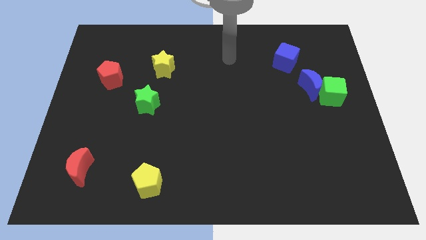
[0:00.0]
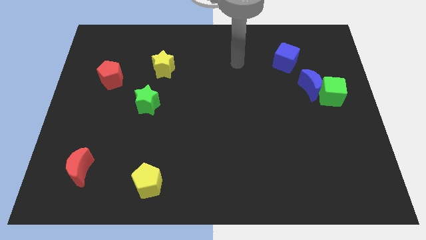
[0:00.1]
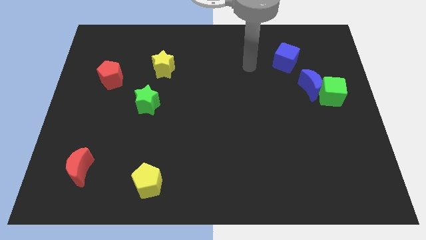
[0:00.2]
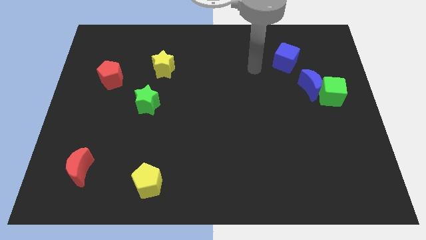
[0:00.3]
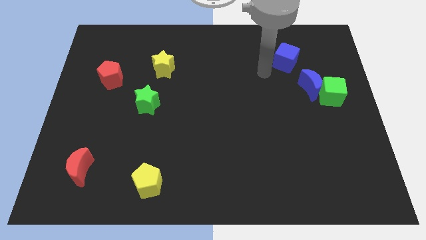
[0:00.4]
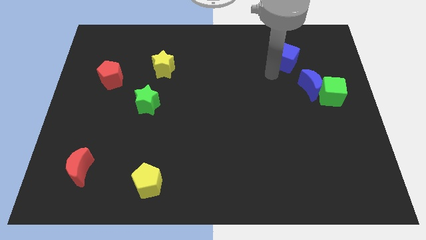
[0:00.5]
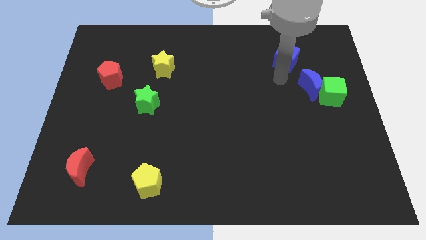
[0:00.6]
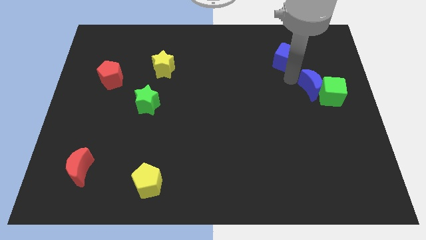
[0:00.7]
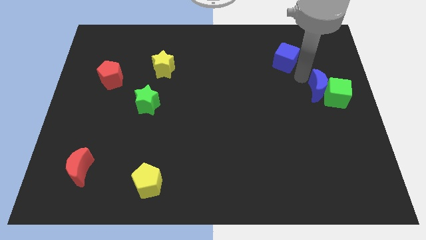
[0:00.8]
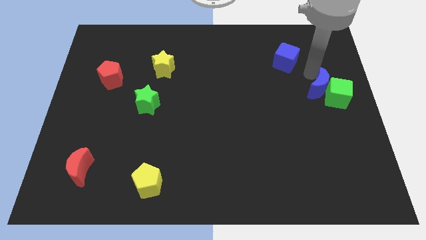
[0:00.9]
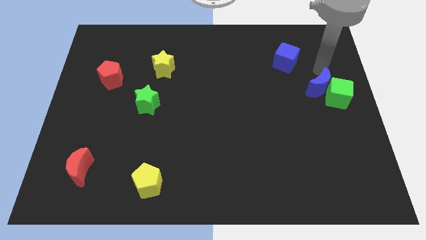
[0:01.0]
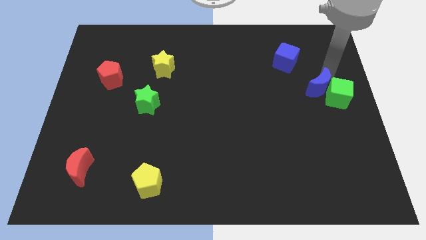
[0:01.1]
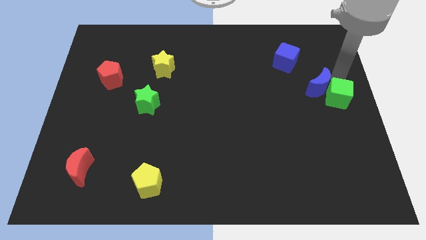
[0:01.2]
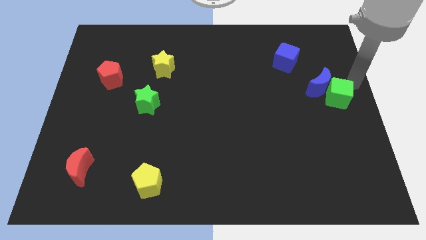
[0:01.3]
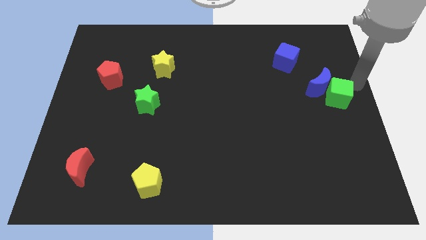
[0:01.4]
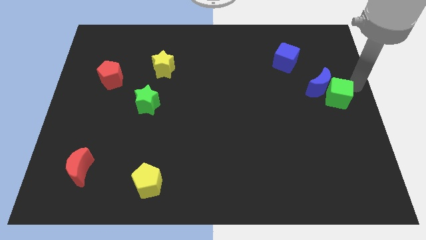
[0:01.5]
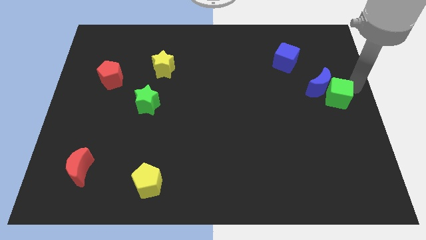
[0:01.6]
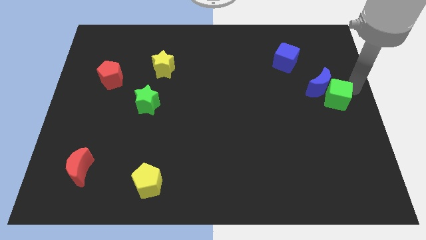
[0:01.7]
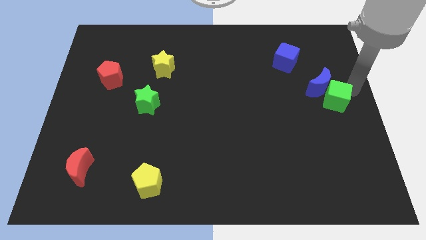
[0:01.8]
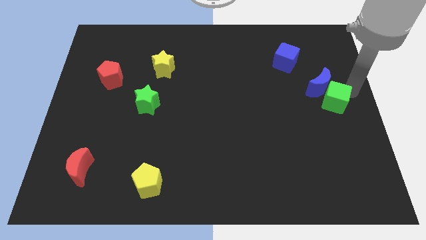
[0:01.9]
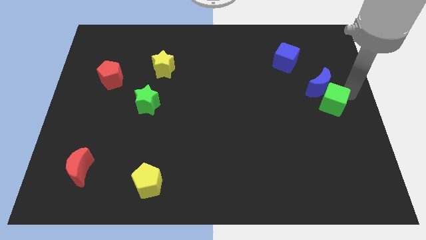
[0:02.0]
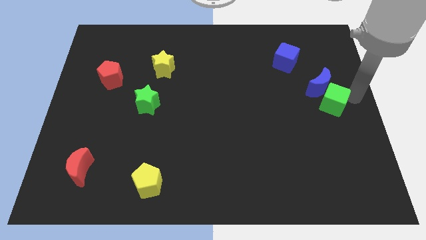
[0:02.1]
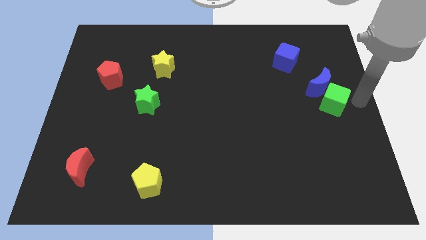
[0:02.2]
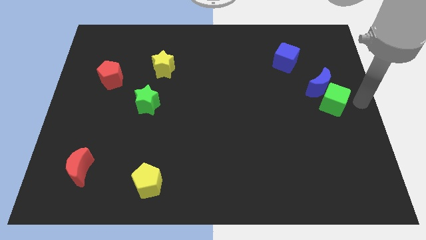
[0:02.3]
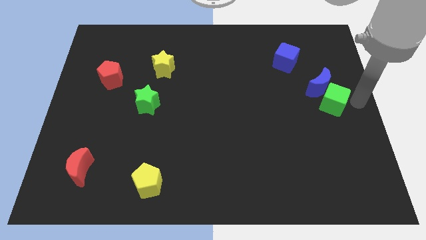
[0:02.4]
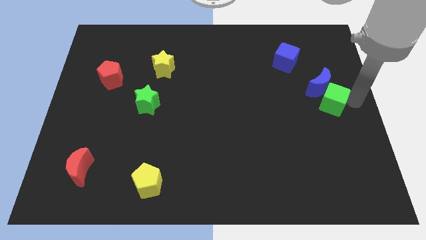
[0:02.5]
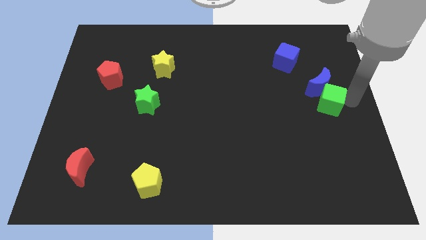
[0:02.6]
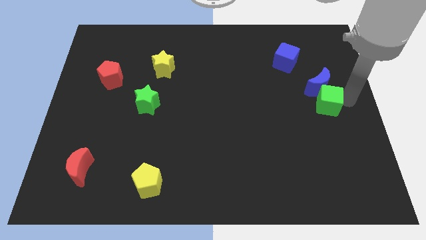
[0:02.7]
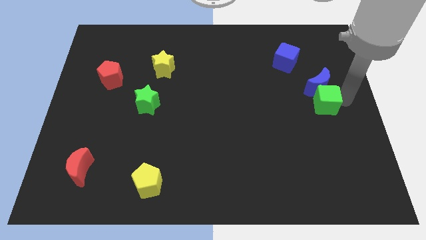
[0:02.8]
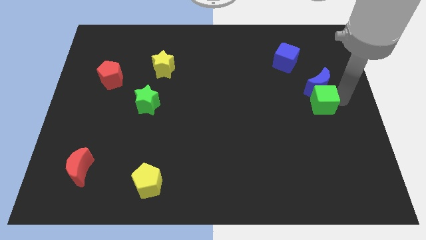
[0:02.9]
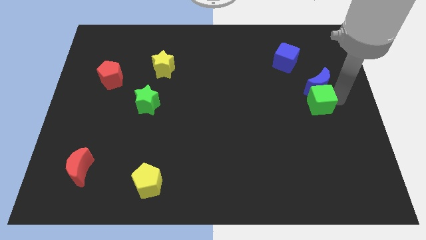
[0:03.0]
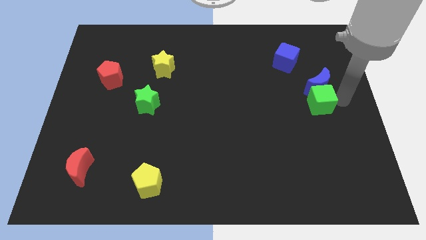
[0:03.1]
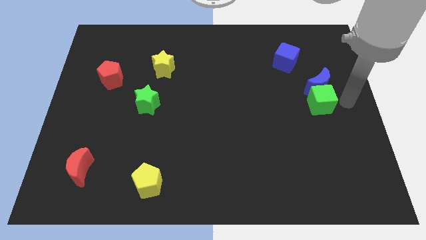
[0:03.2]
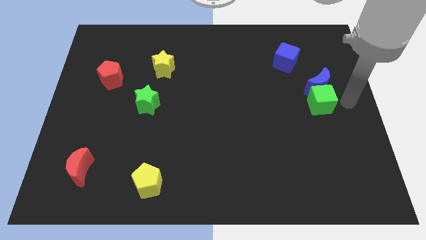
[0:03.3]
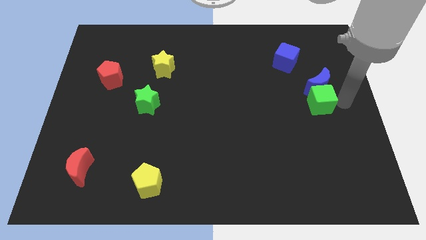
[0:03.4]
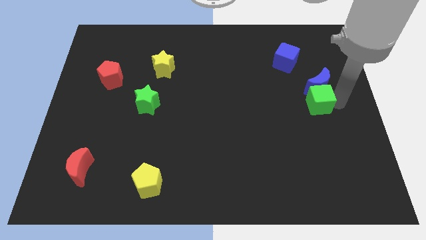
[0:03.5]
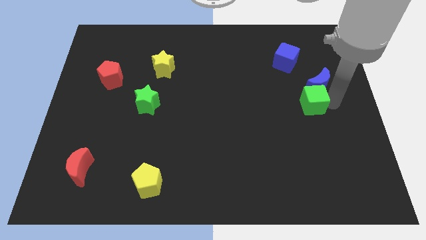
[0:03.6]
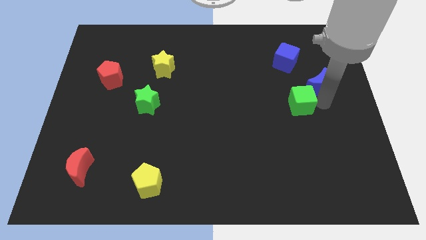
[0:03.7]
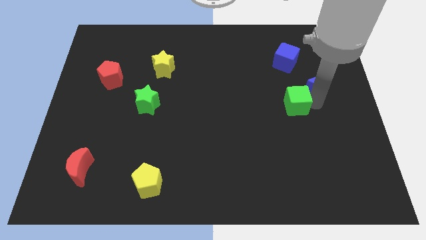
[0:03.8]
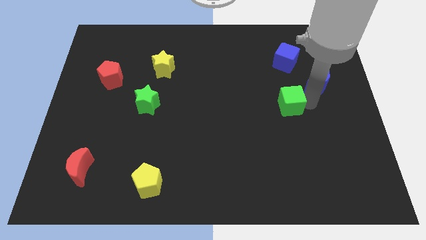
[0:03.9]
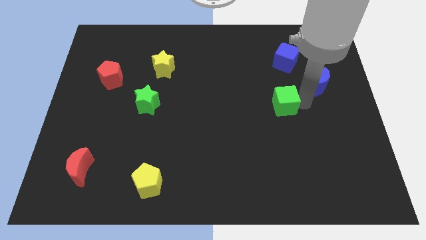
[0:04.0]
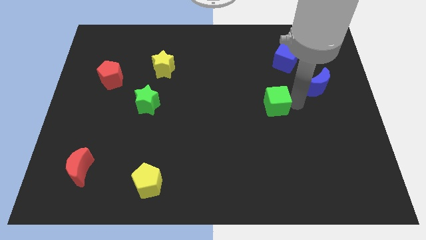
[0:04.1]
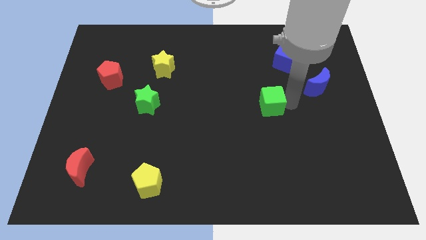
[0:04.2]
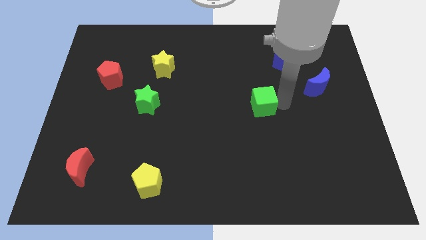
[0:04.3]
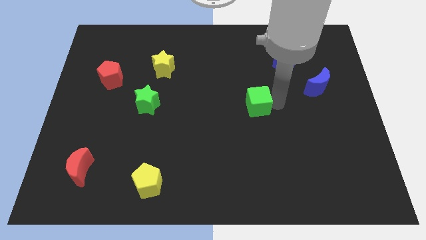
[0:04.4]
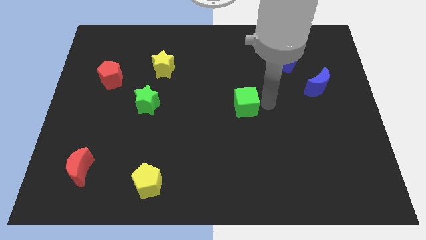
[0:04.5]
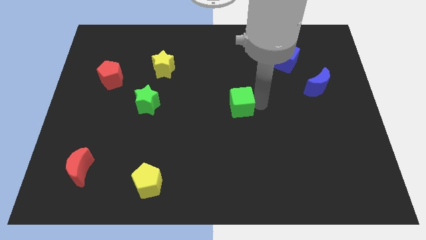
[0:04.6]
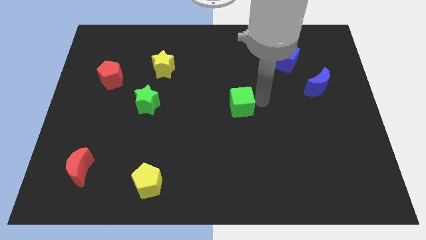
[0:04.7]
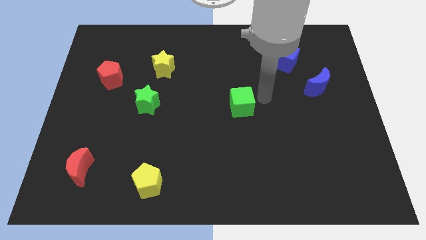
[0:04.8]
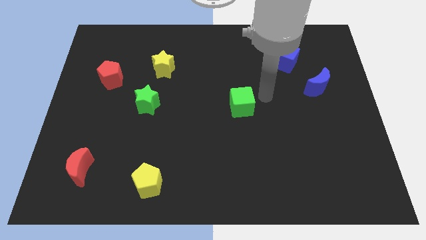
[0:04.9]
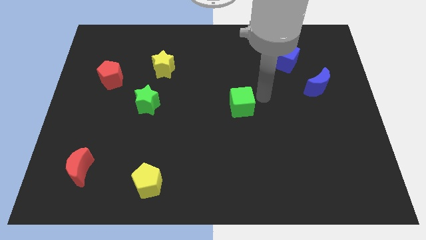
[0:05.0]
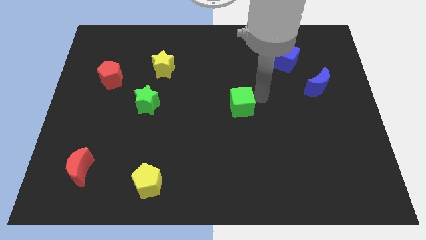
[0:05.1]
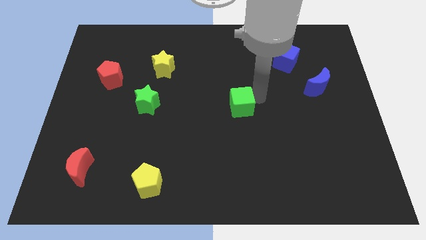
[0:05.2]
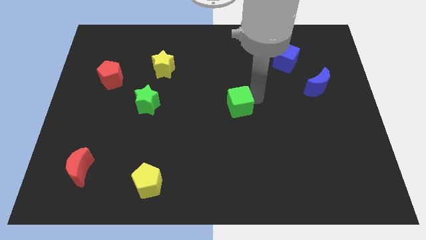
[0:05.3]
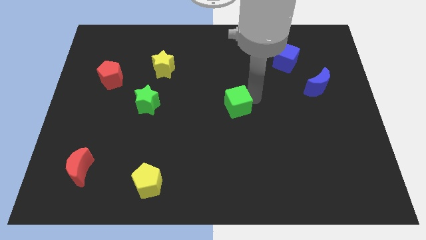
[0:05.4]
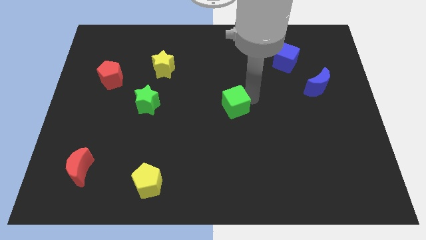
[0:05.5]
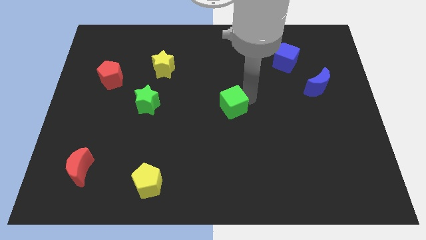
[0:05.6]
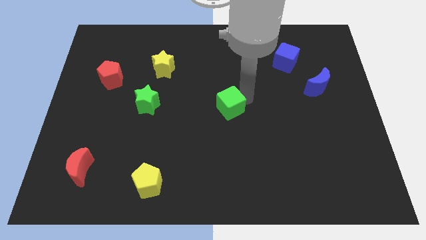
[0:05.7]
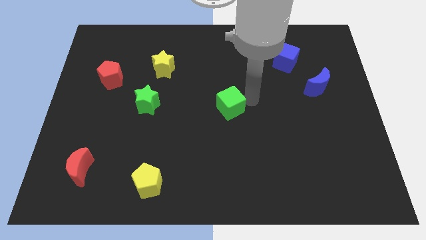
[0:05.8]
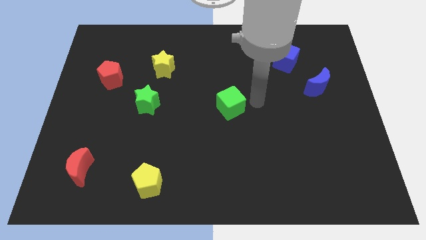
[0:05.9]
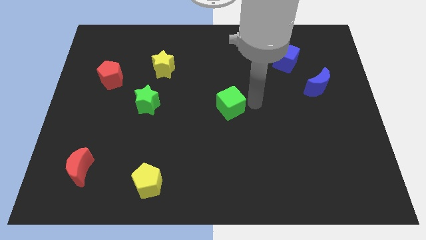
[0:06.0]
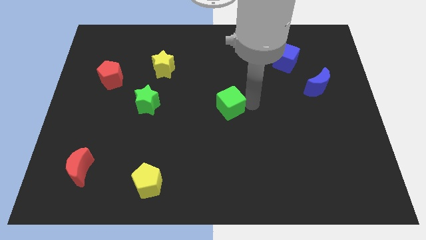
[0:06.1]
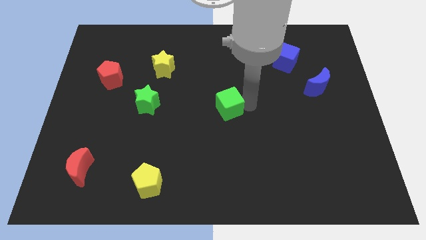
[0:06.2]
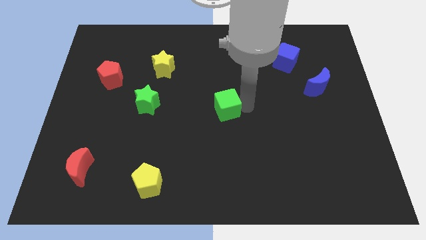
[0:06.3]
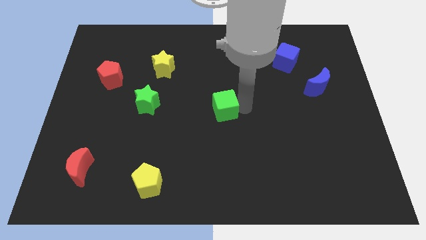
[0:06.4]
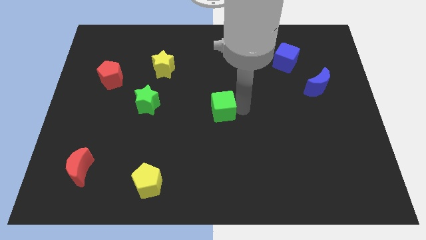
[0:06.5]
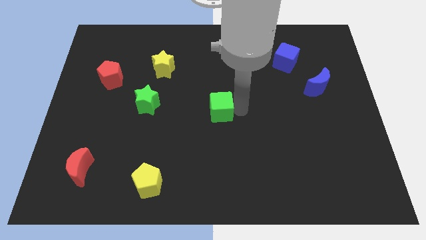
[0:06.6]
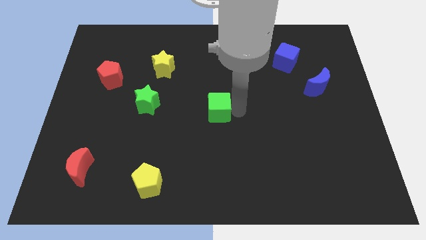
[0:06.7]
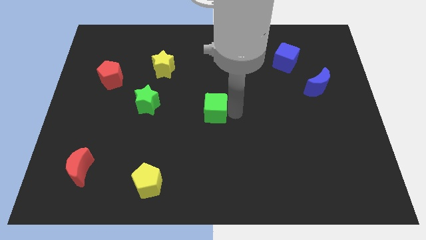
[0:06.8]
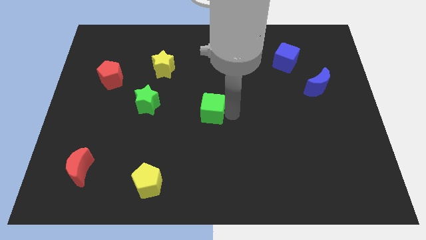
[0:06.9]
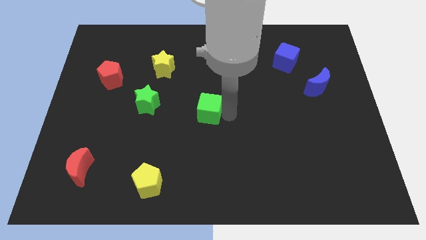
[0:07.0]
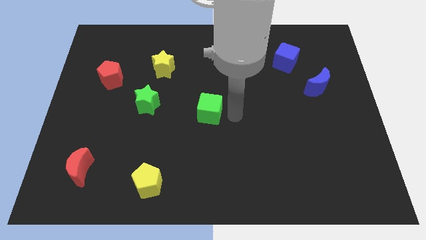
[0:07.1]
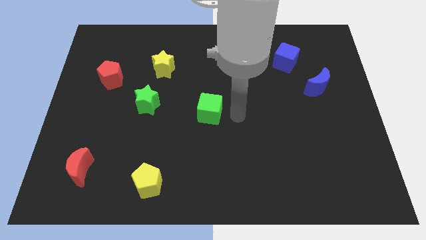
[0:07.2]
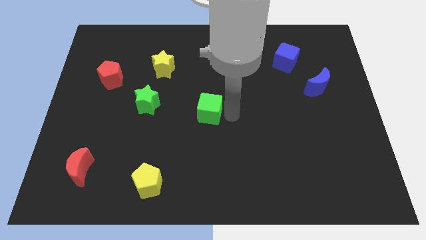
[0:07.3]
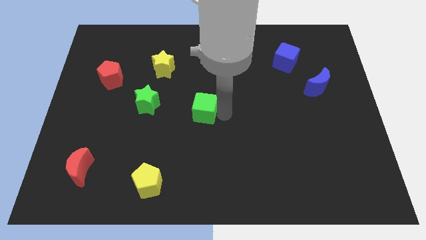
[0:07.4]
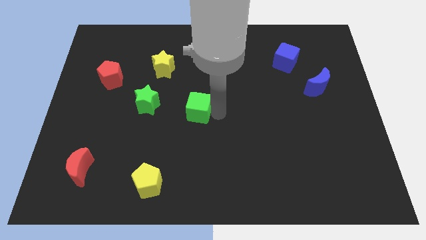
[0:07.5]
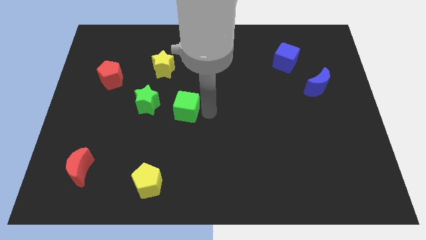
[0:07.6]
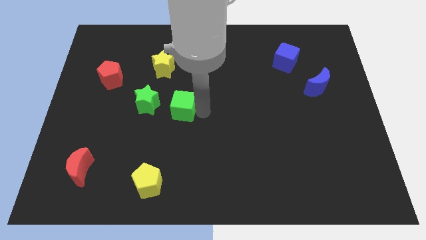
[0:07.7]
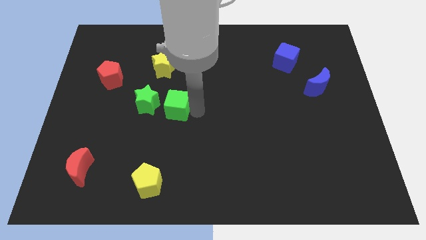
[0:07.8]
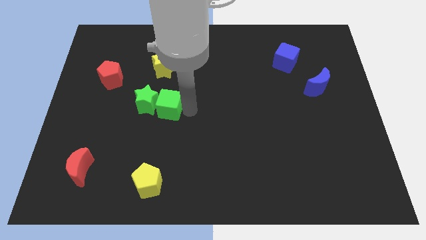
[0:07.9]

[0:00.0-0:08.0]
push the green cube to the green star
